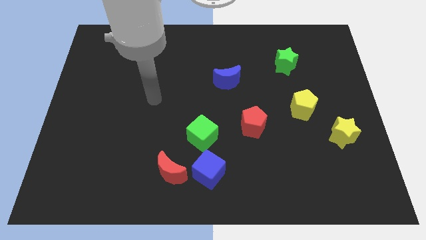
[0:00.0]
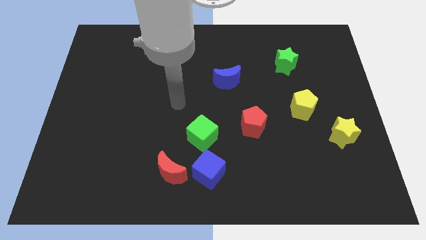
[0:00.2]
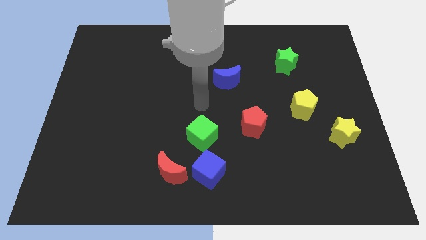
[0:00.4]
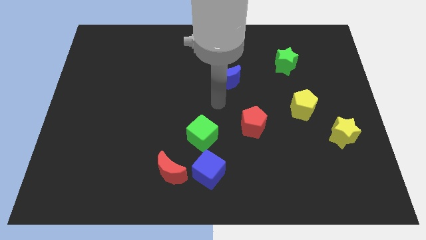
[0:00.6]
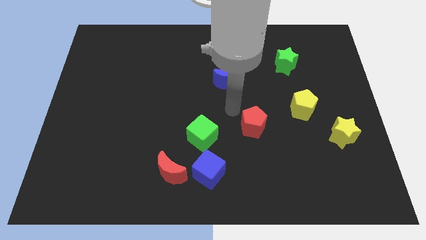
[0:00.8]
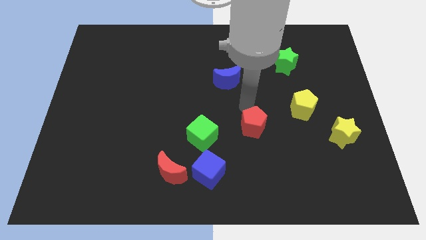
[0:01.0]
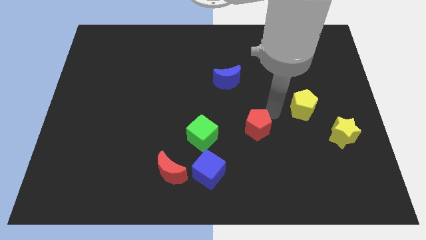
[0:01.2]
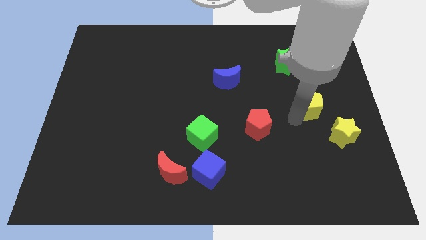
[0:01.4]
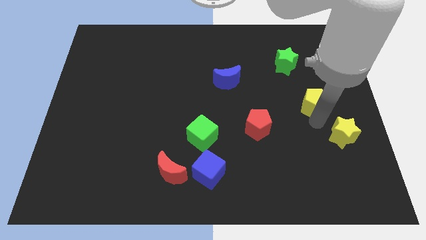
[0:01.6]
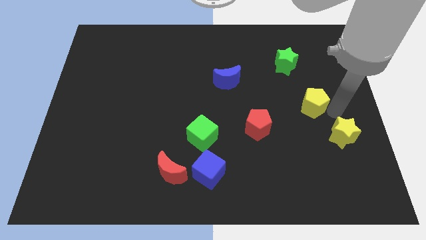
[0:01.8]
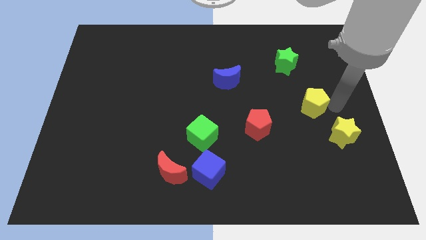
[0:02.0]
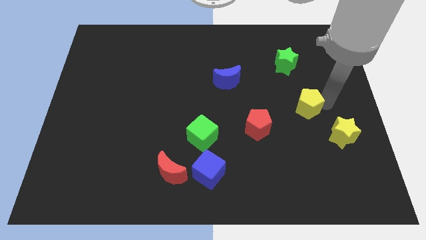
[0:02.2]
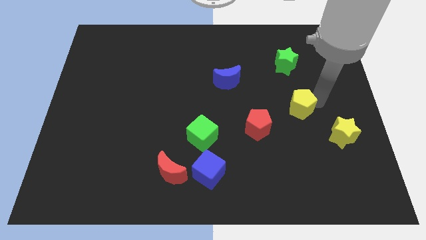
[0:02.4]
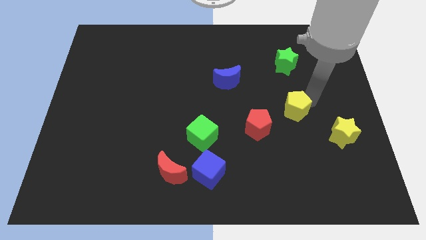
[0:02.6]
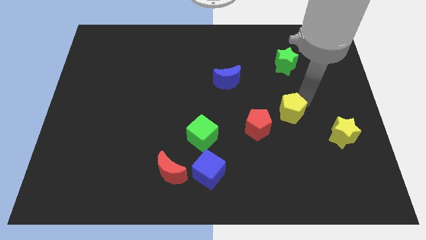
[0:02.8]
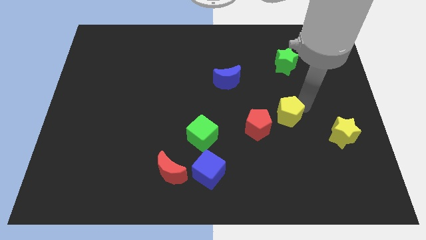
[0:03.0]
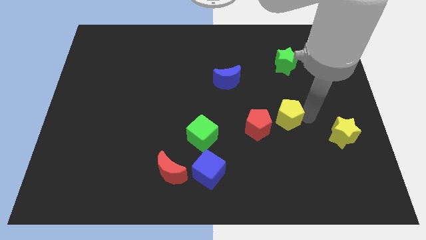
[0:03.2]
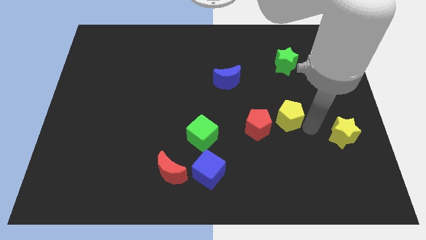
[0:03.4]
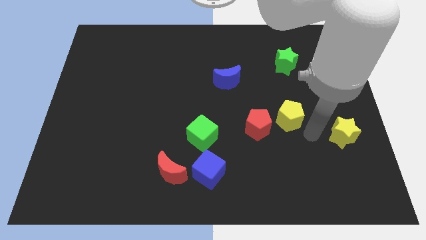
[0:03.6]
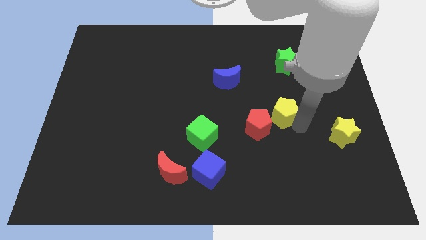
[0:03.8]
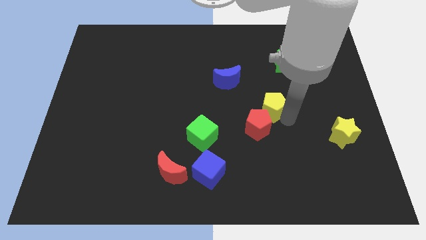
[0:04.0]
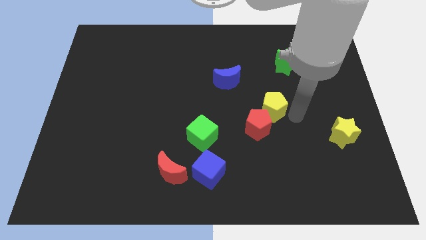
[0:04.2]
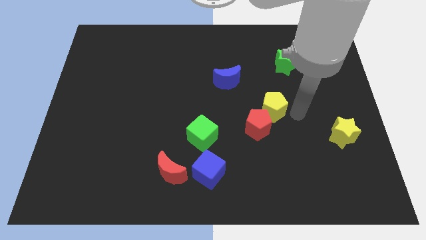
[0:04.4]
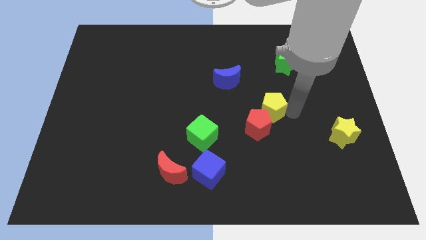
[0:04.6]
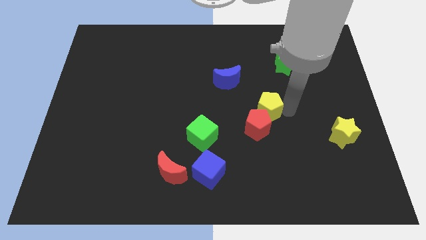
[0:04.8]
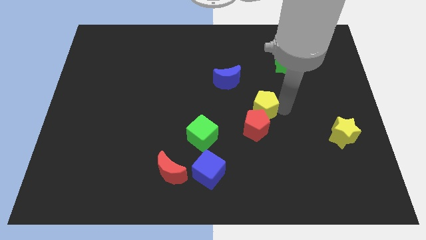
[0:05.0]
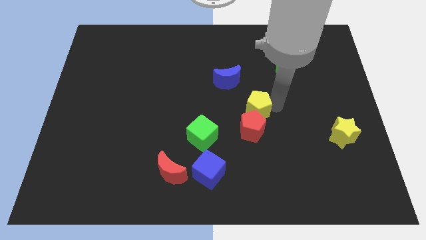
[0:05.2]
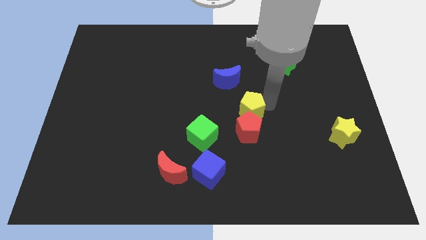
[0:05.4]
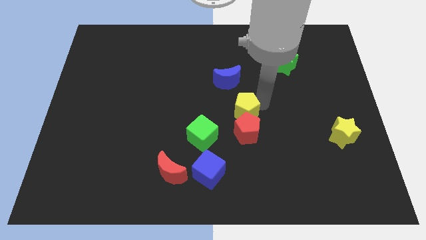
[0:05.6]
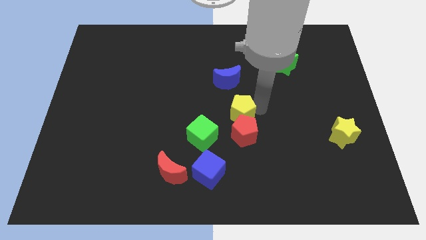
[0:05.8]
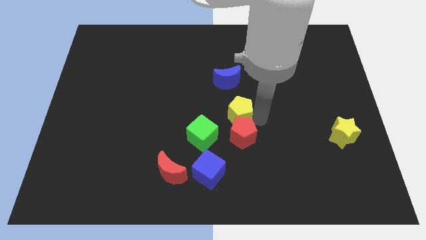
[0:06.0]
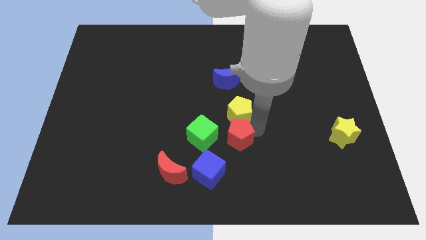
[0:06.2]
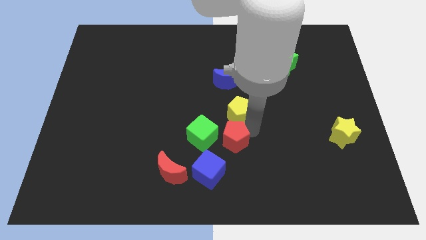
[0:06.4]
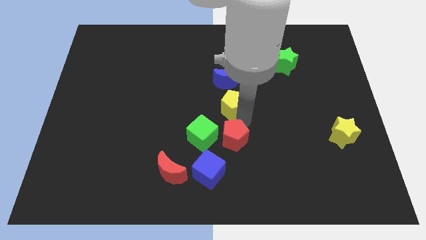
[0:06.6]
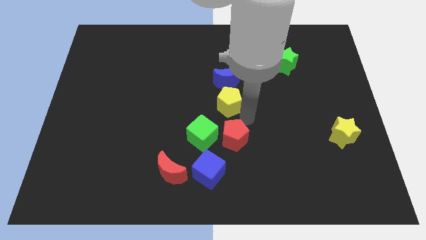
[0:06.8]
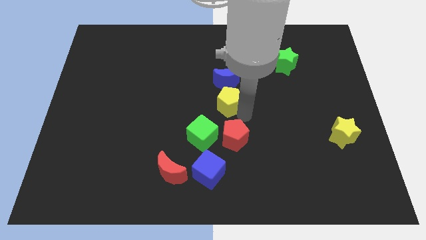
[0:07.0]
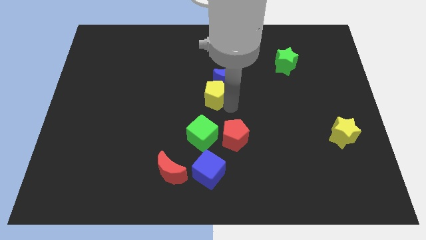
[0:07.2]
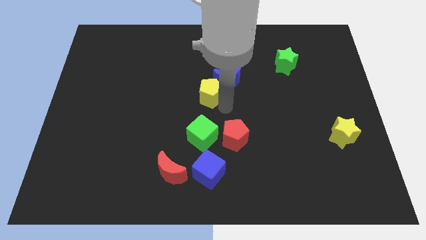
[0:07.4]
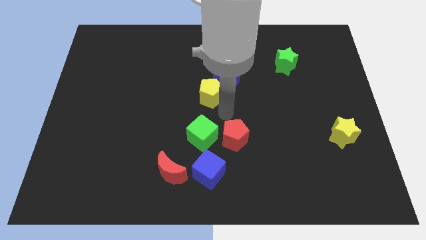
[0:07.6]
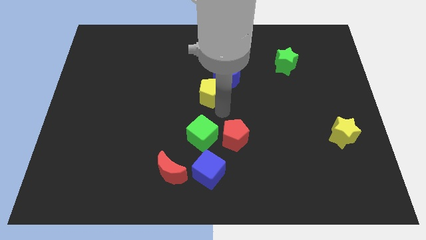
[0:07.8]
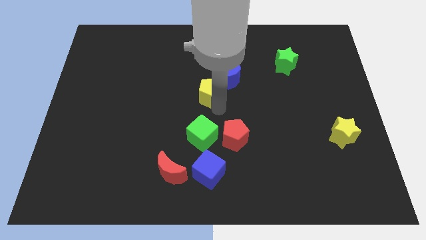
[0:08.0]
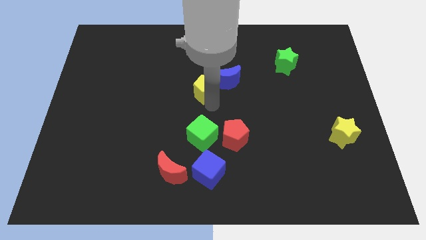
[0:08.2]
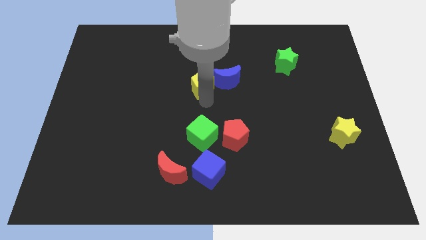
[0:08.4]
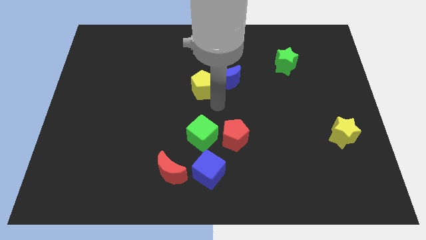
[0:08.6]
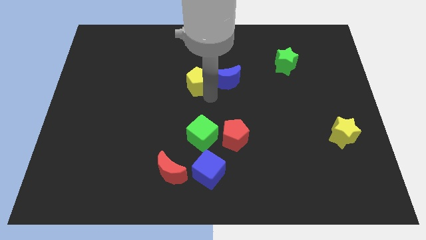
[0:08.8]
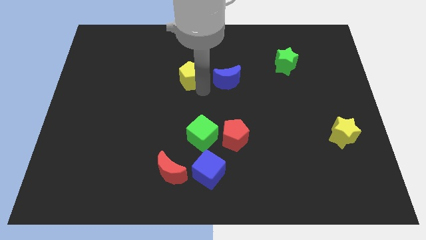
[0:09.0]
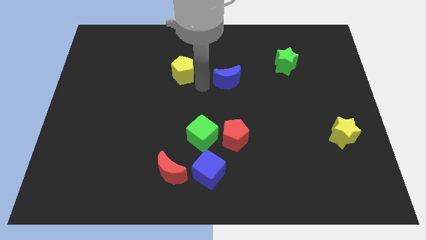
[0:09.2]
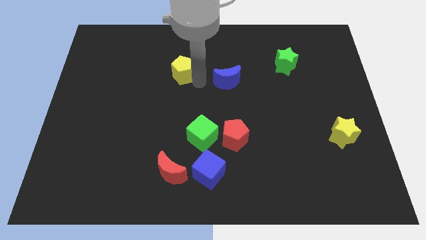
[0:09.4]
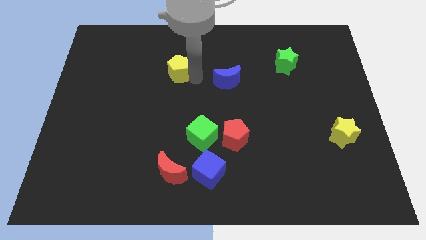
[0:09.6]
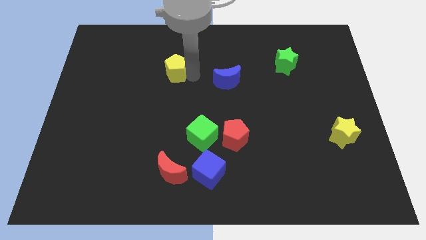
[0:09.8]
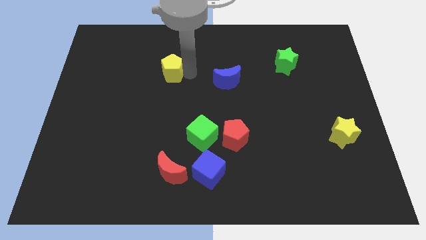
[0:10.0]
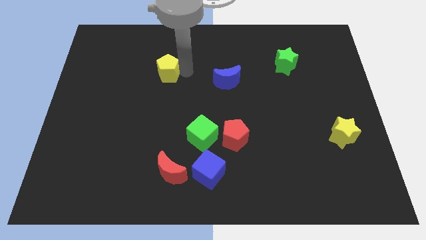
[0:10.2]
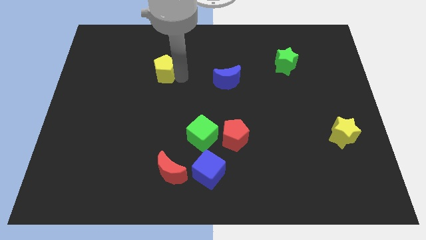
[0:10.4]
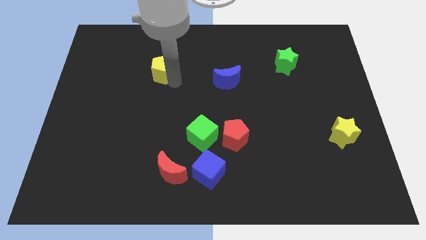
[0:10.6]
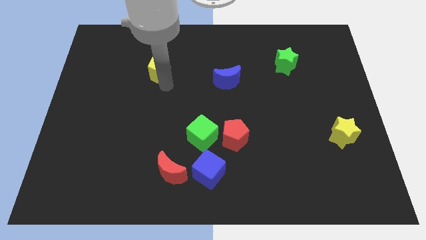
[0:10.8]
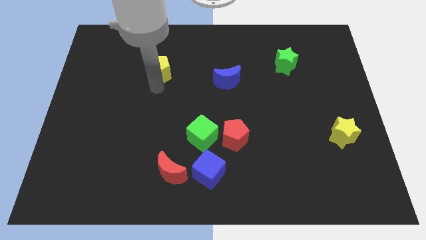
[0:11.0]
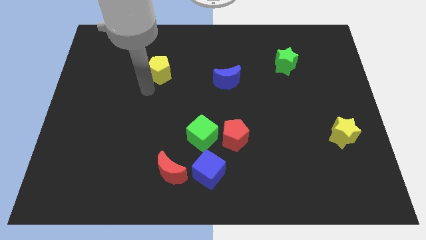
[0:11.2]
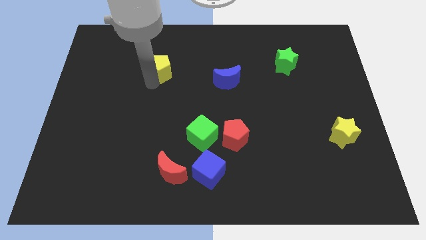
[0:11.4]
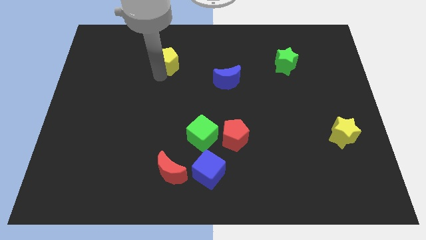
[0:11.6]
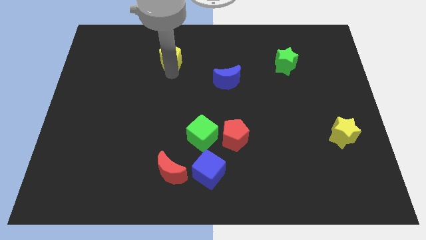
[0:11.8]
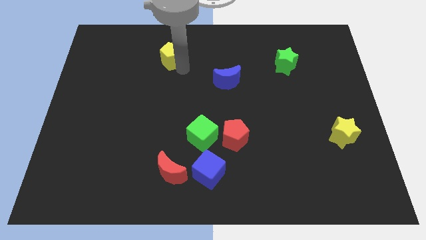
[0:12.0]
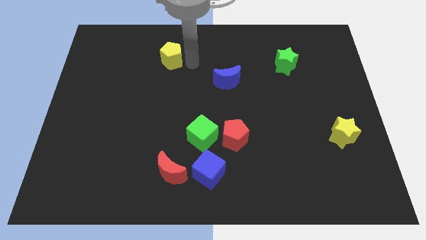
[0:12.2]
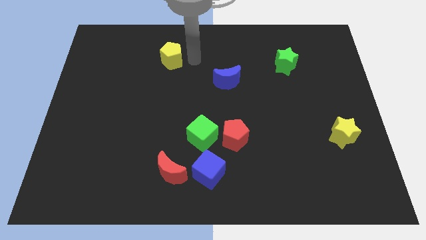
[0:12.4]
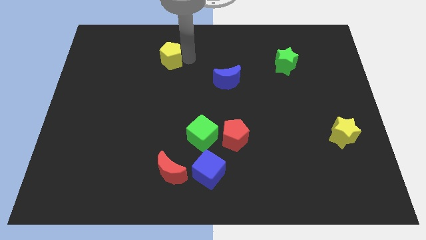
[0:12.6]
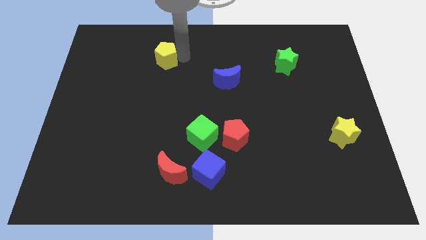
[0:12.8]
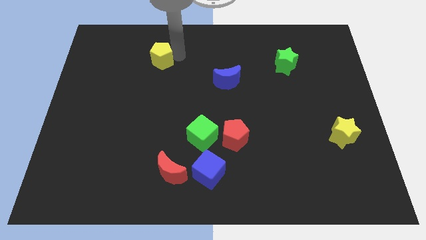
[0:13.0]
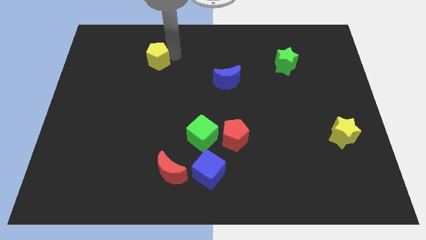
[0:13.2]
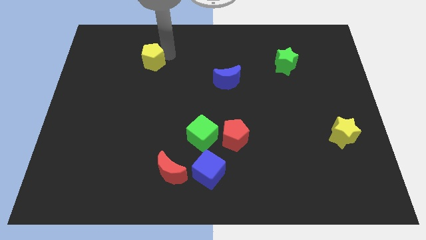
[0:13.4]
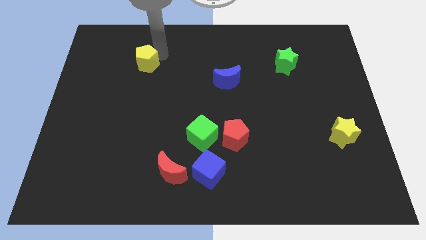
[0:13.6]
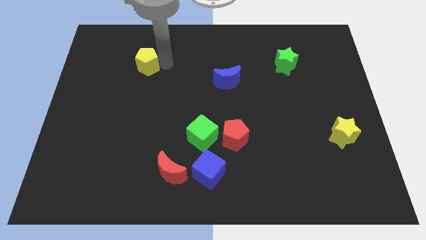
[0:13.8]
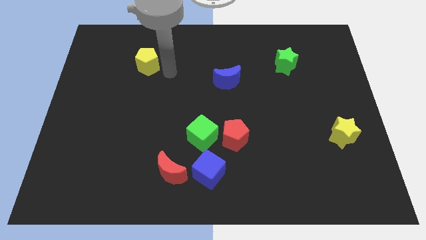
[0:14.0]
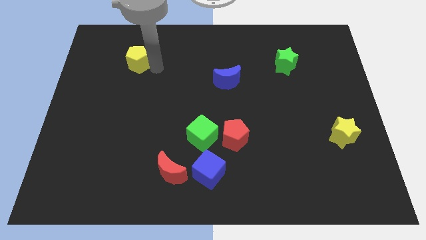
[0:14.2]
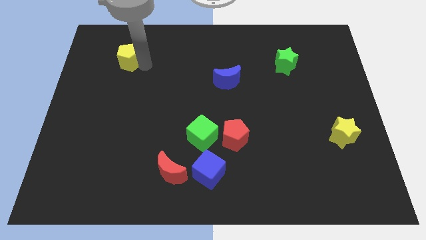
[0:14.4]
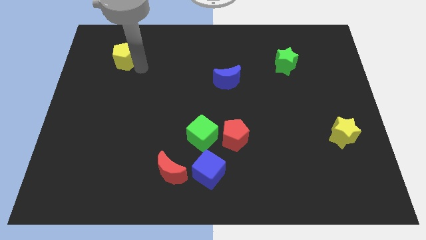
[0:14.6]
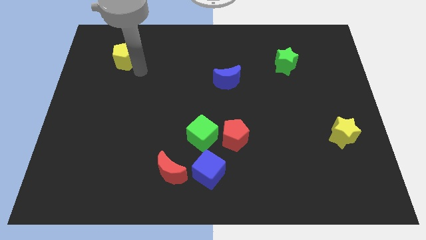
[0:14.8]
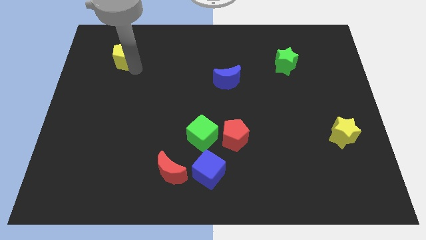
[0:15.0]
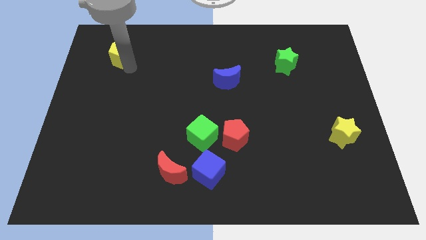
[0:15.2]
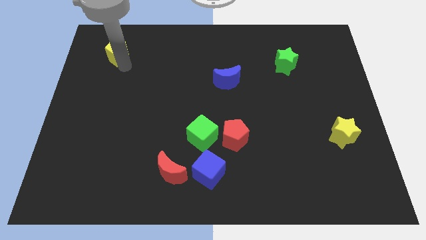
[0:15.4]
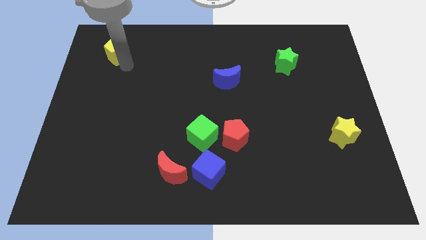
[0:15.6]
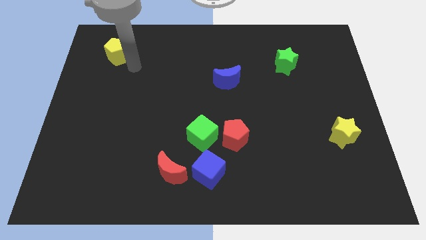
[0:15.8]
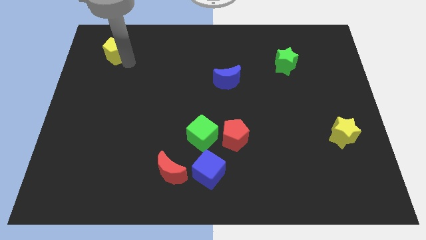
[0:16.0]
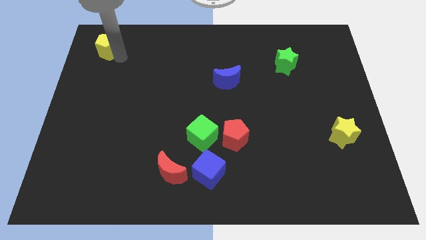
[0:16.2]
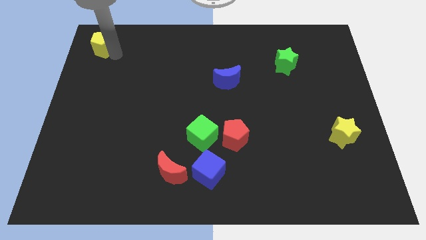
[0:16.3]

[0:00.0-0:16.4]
push the yellow pentagon to the top left
